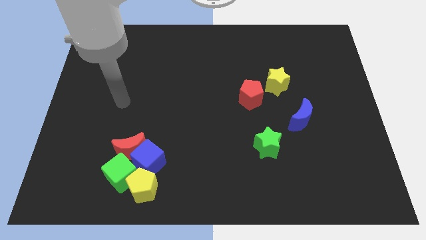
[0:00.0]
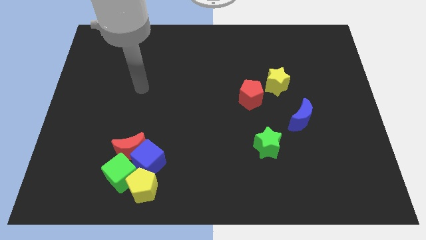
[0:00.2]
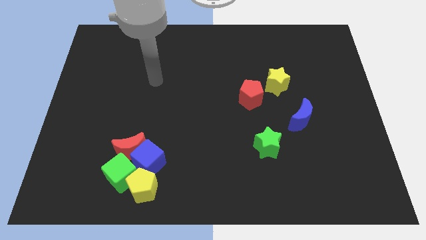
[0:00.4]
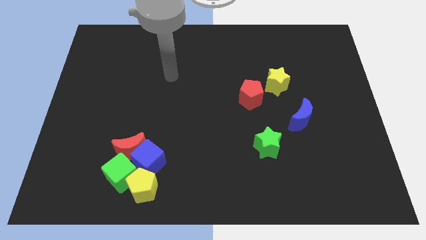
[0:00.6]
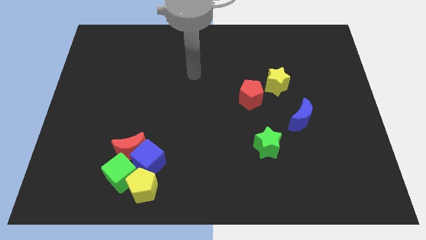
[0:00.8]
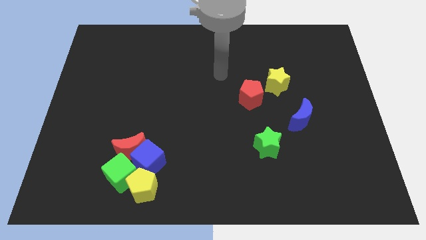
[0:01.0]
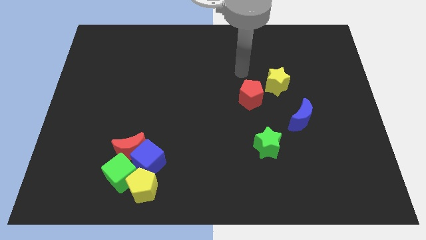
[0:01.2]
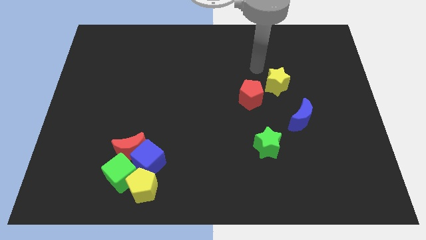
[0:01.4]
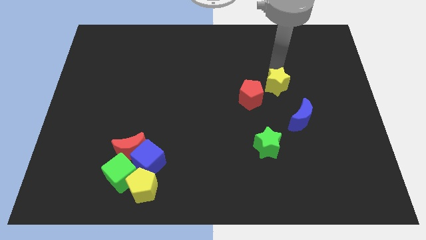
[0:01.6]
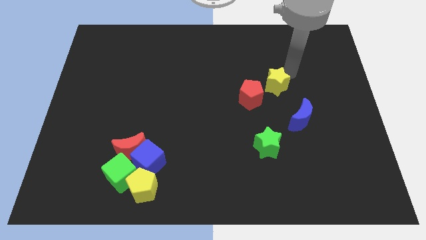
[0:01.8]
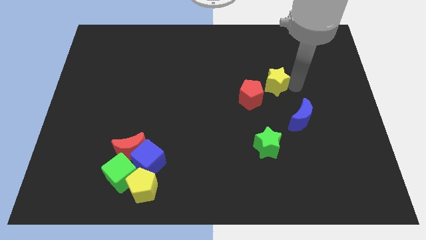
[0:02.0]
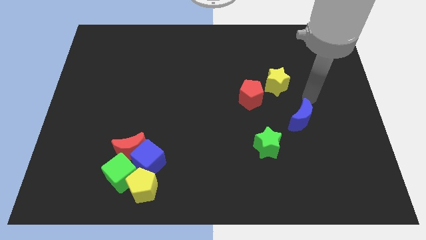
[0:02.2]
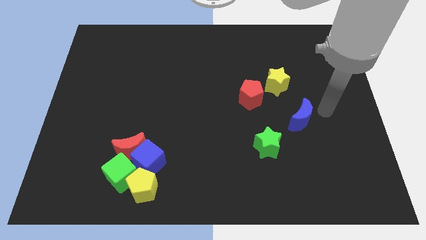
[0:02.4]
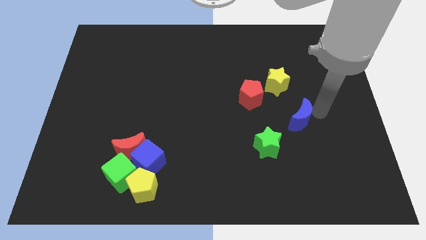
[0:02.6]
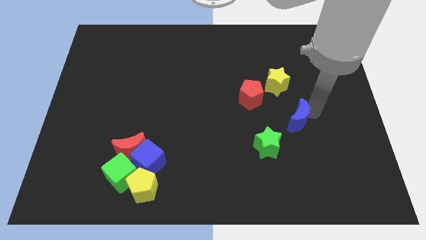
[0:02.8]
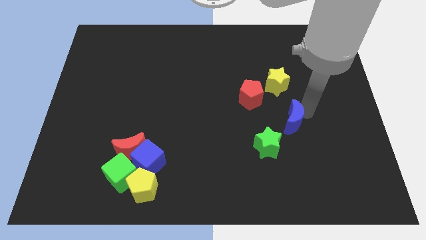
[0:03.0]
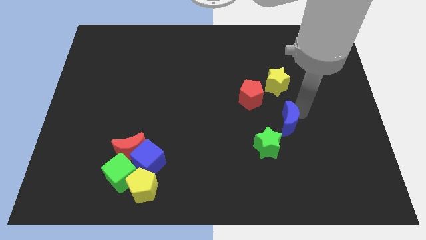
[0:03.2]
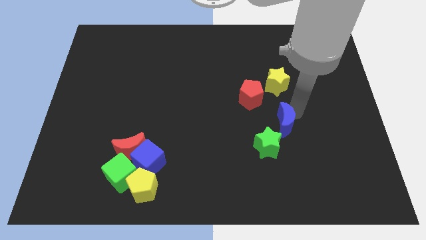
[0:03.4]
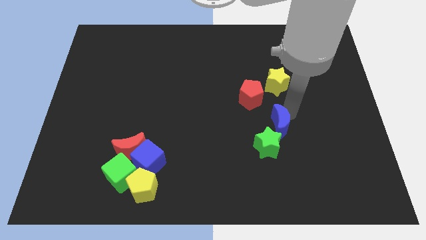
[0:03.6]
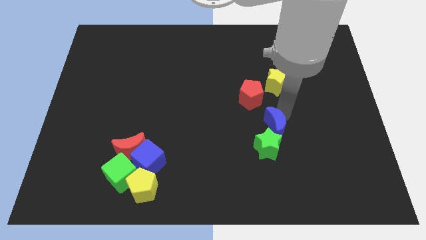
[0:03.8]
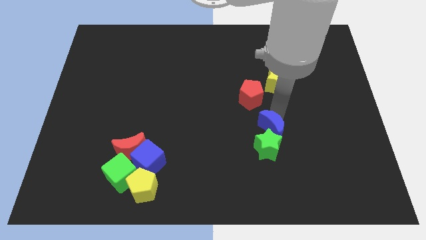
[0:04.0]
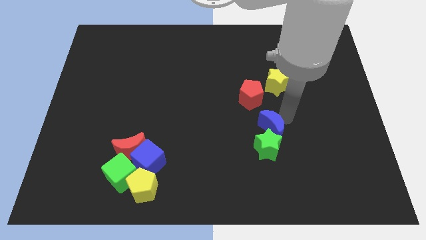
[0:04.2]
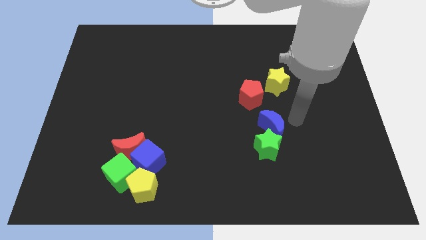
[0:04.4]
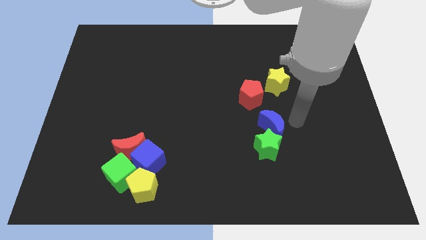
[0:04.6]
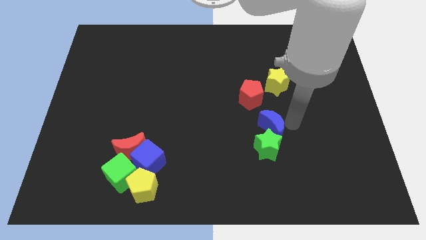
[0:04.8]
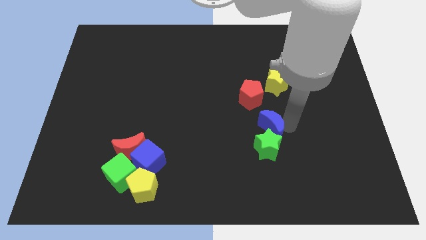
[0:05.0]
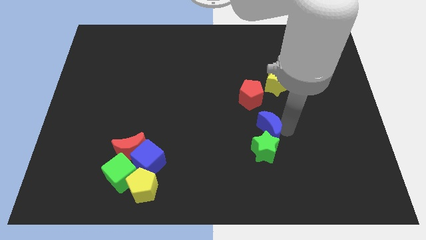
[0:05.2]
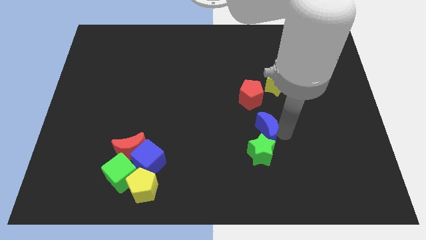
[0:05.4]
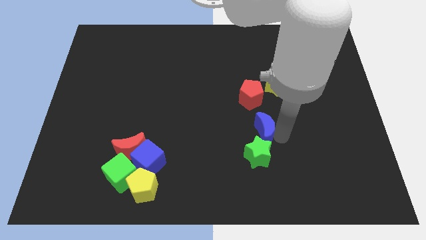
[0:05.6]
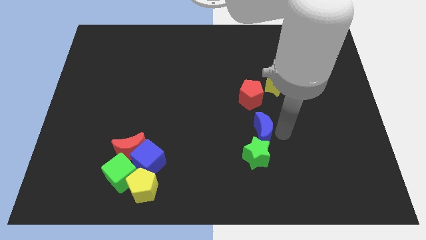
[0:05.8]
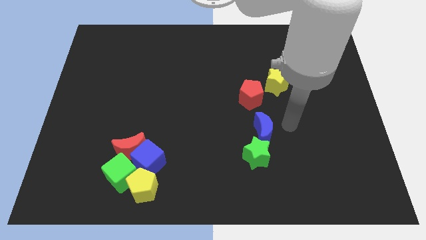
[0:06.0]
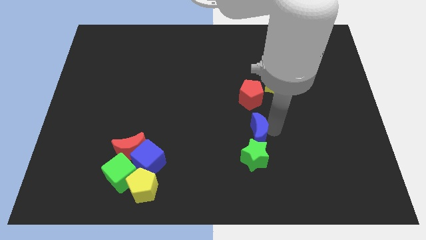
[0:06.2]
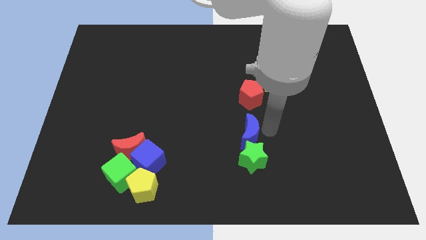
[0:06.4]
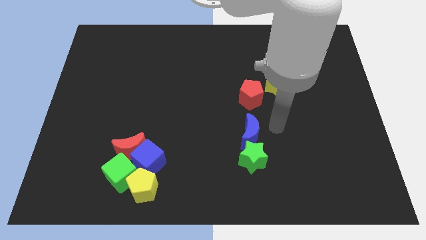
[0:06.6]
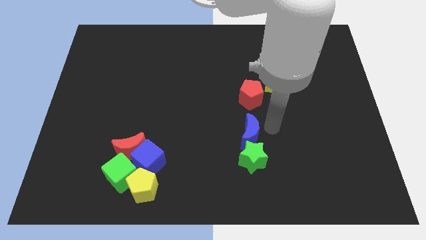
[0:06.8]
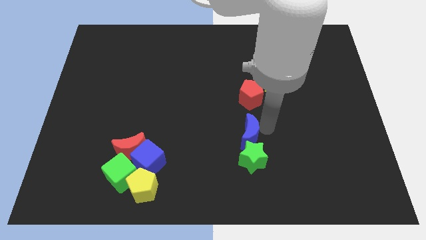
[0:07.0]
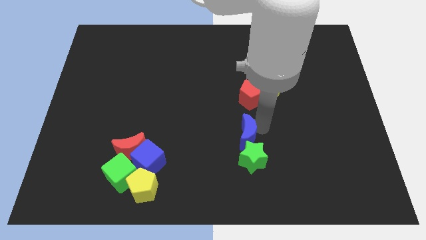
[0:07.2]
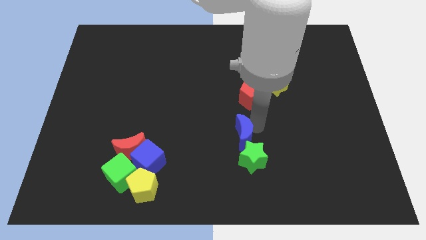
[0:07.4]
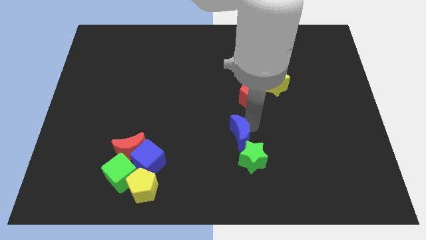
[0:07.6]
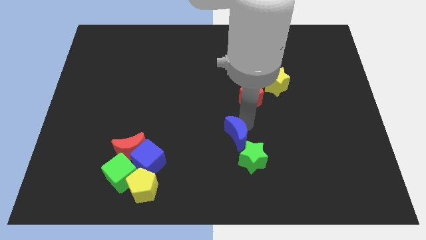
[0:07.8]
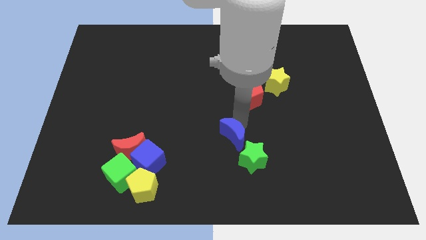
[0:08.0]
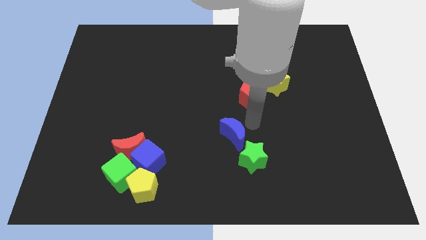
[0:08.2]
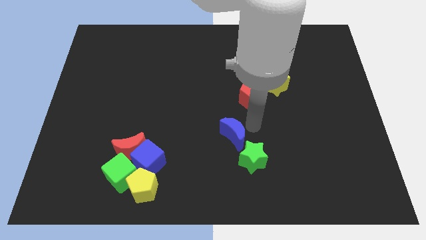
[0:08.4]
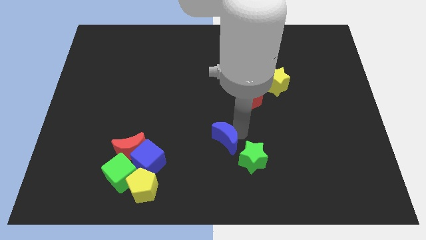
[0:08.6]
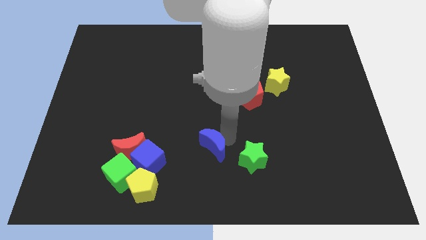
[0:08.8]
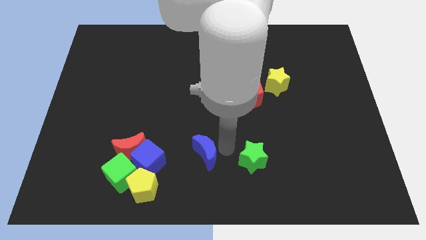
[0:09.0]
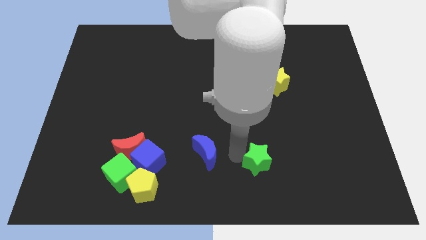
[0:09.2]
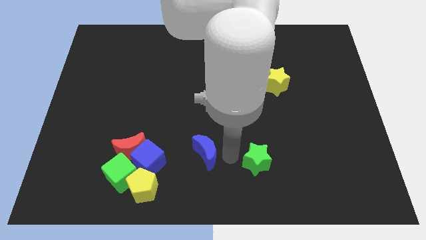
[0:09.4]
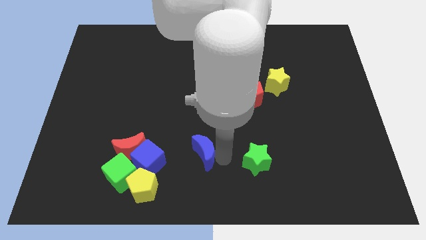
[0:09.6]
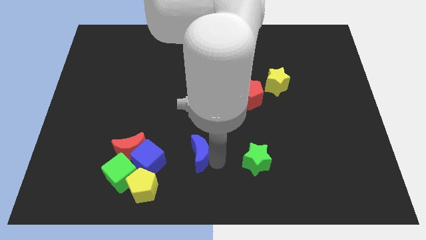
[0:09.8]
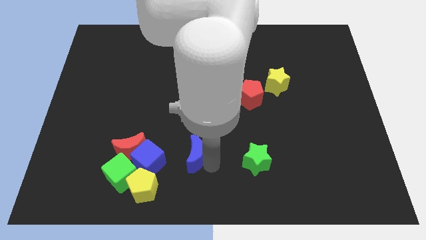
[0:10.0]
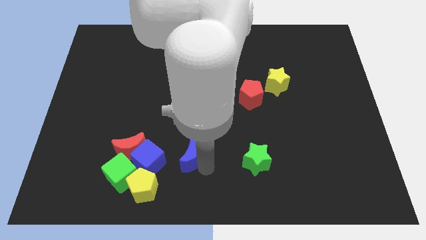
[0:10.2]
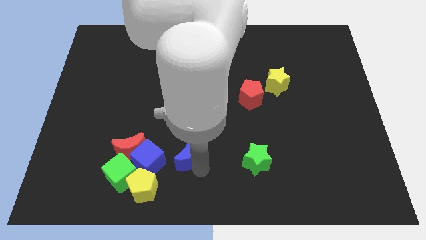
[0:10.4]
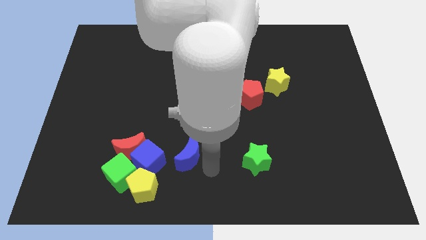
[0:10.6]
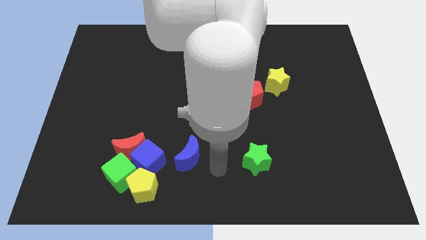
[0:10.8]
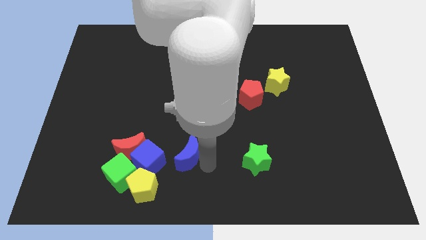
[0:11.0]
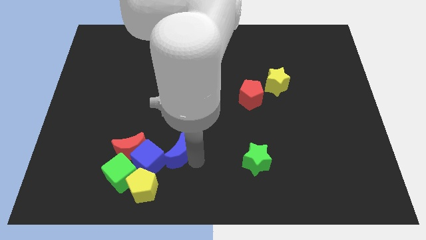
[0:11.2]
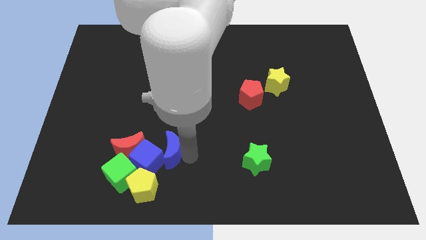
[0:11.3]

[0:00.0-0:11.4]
slide the blue moon to the blue cube

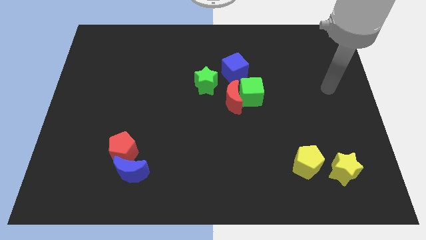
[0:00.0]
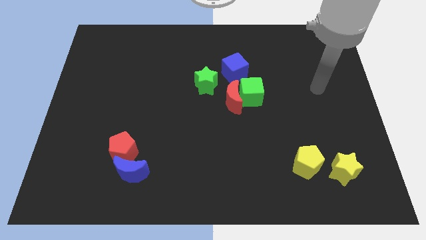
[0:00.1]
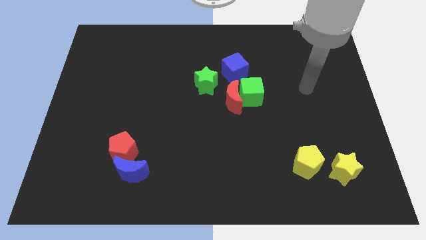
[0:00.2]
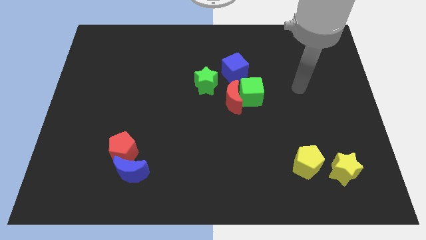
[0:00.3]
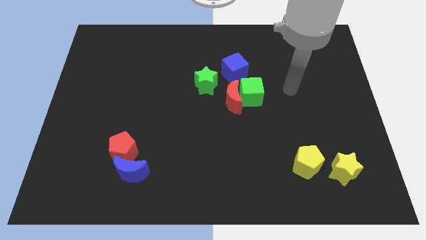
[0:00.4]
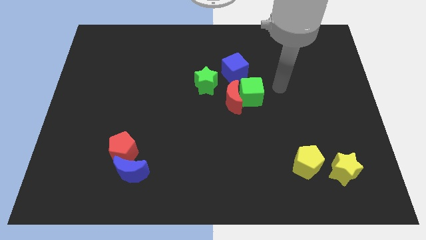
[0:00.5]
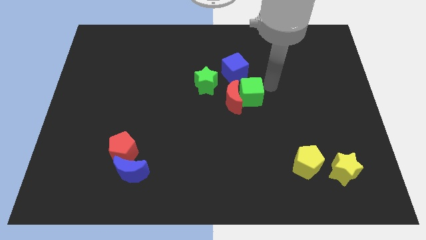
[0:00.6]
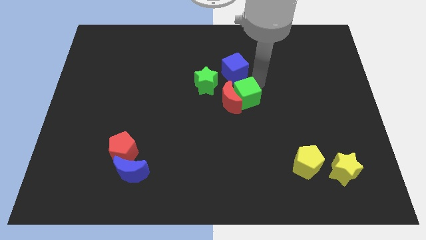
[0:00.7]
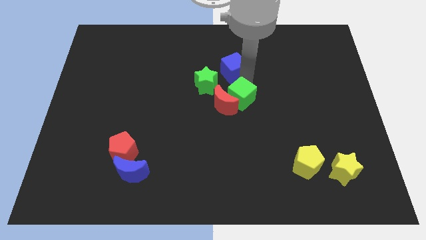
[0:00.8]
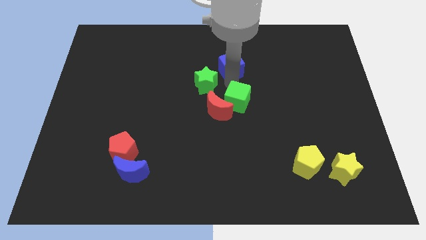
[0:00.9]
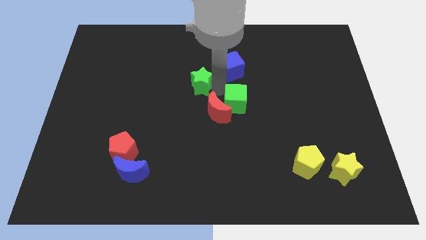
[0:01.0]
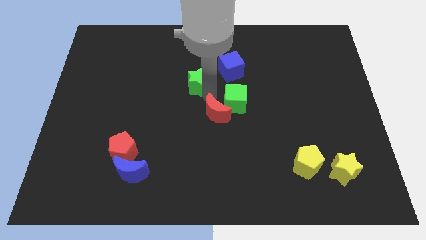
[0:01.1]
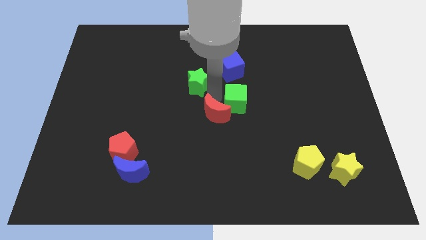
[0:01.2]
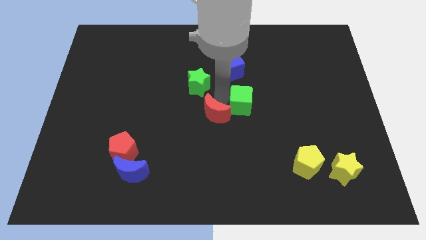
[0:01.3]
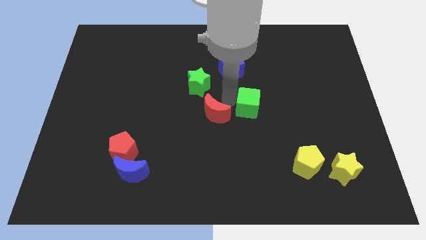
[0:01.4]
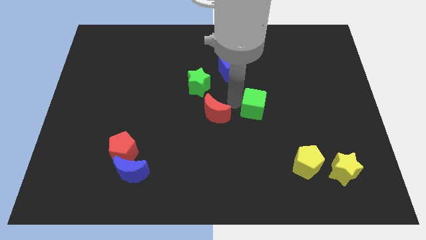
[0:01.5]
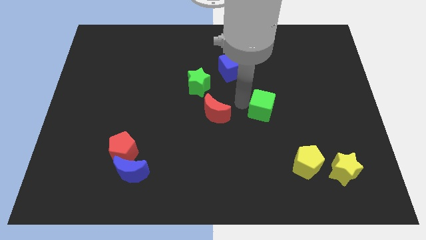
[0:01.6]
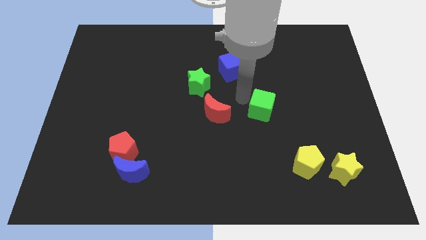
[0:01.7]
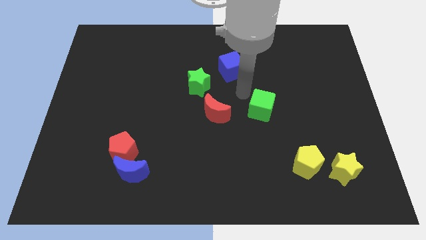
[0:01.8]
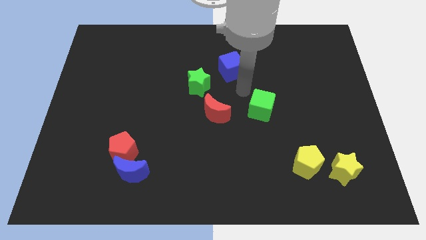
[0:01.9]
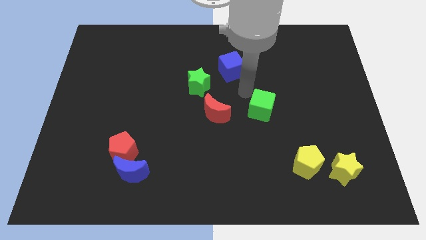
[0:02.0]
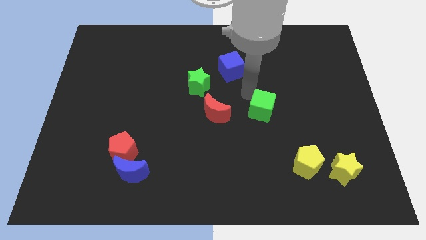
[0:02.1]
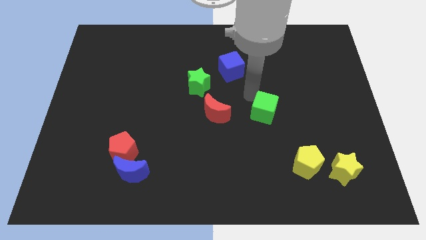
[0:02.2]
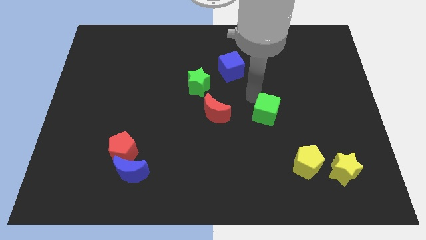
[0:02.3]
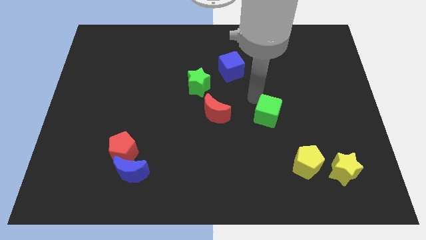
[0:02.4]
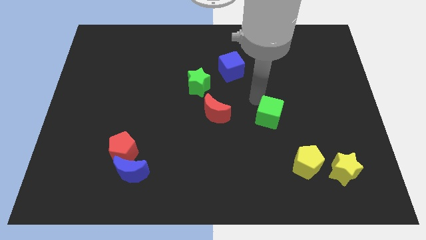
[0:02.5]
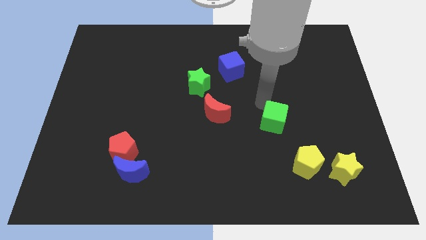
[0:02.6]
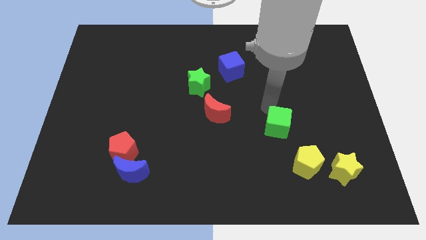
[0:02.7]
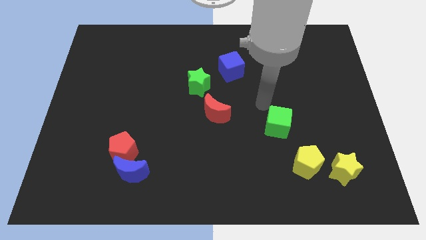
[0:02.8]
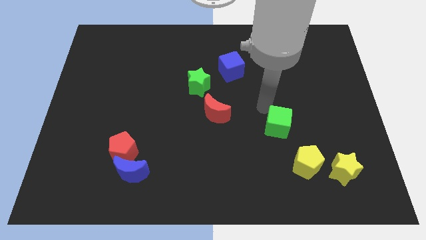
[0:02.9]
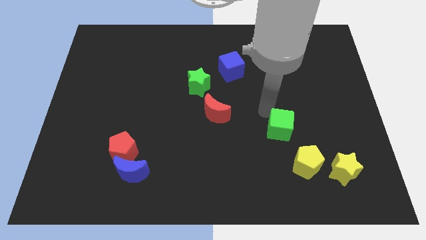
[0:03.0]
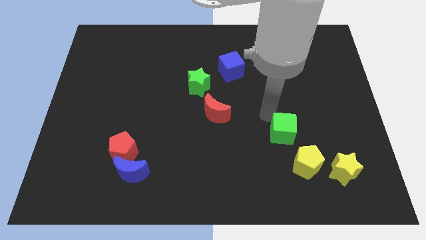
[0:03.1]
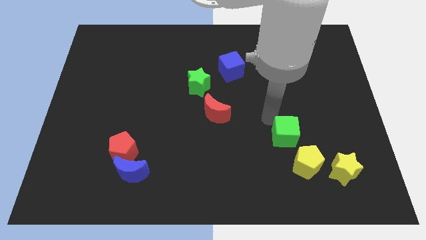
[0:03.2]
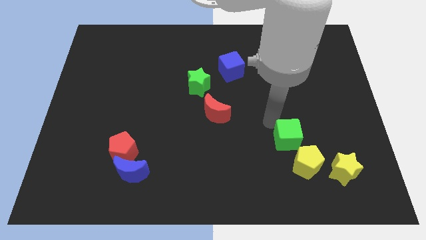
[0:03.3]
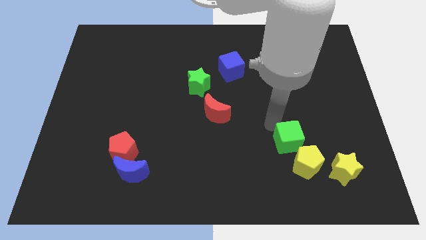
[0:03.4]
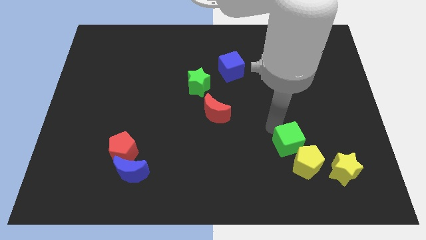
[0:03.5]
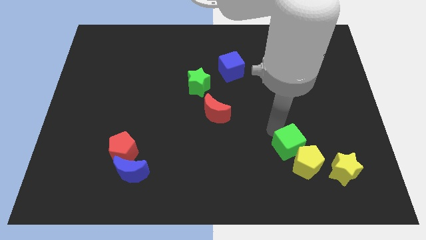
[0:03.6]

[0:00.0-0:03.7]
move the green cube towards the yellow pentagon
